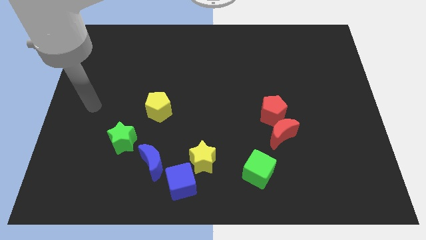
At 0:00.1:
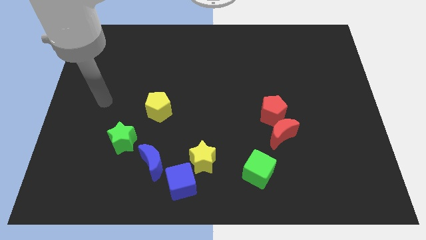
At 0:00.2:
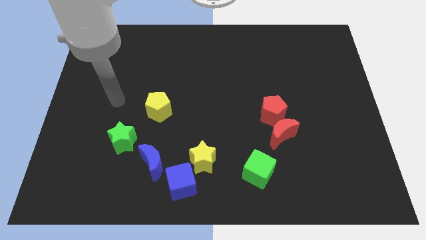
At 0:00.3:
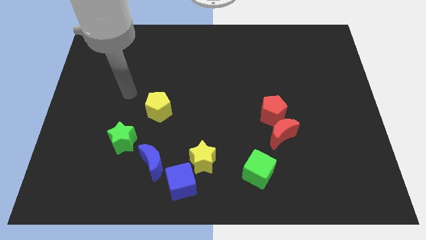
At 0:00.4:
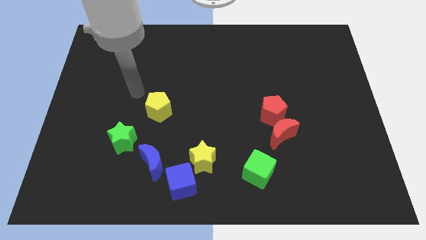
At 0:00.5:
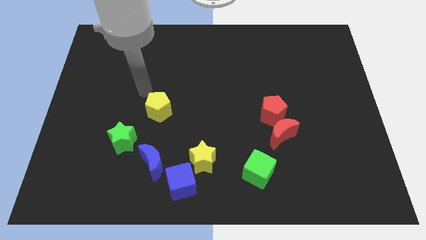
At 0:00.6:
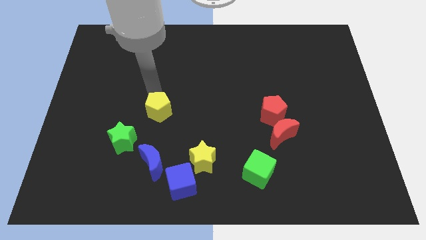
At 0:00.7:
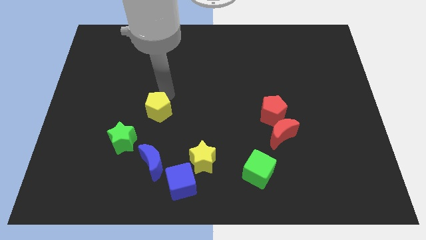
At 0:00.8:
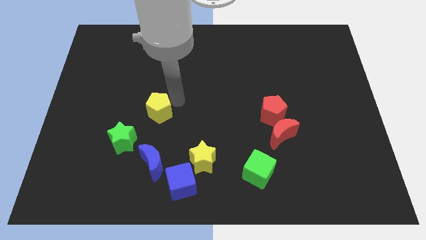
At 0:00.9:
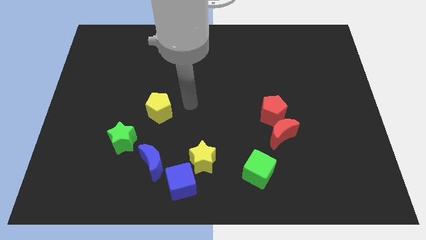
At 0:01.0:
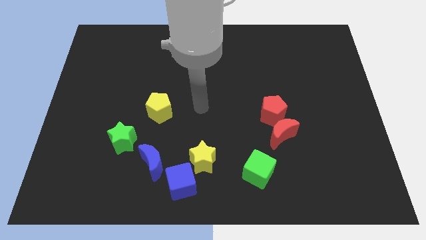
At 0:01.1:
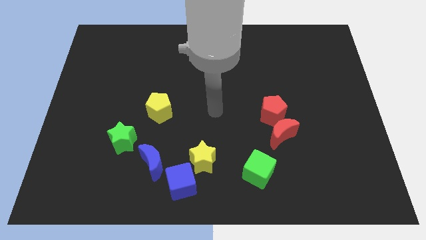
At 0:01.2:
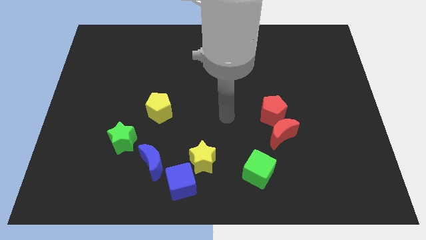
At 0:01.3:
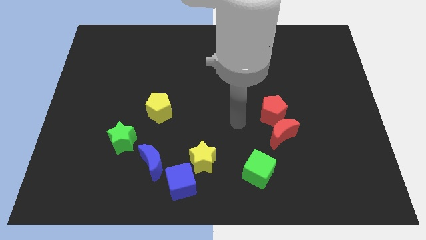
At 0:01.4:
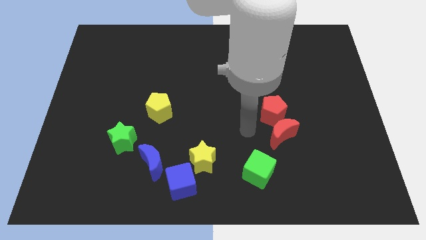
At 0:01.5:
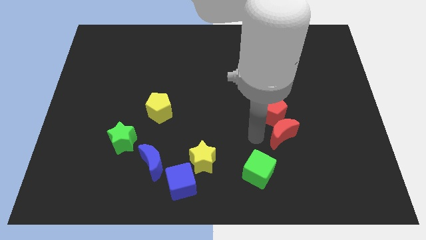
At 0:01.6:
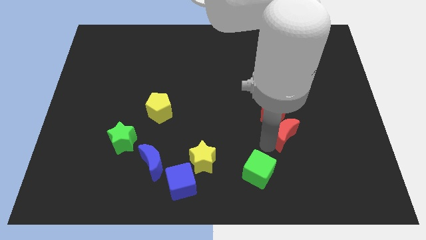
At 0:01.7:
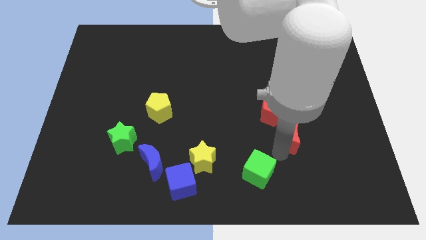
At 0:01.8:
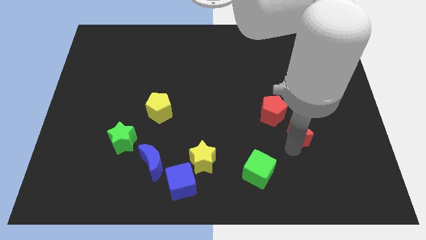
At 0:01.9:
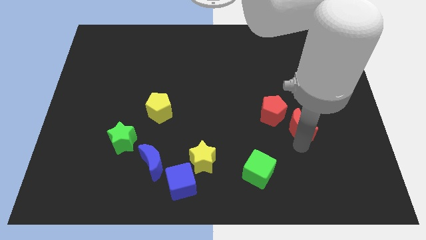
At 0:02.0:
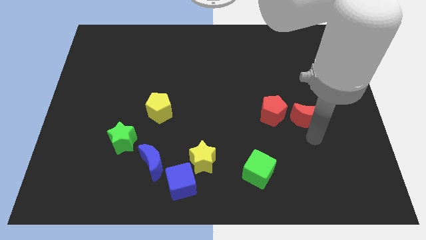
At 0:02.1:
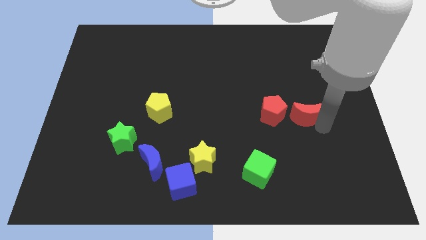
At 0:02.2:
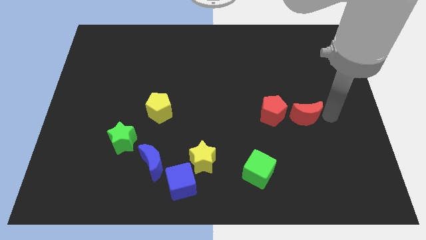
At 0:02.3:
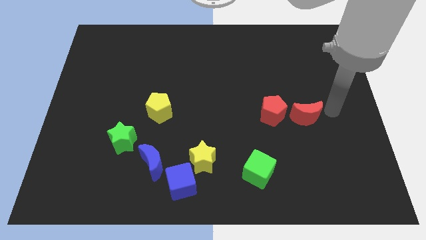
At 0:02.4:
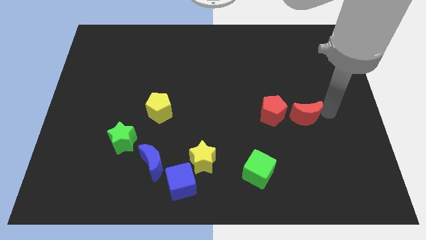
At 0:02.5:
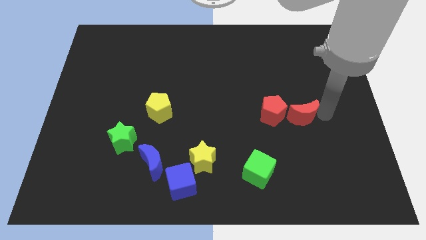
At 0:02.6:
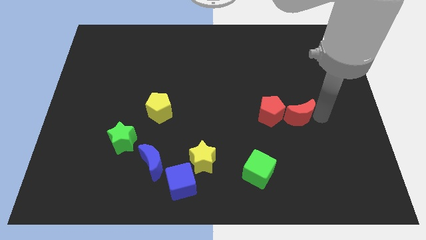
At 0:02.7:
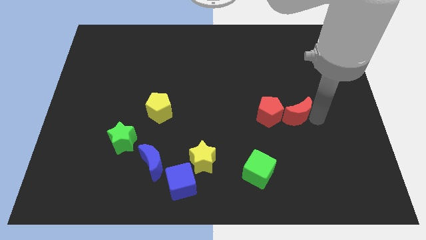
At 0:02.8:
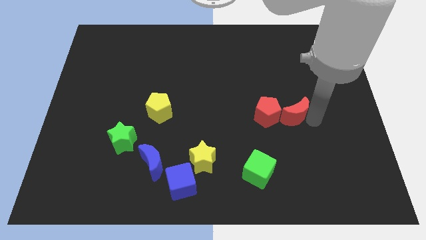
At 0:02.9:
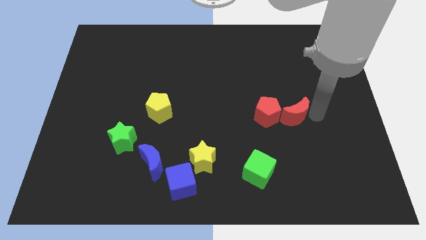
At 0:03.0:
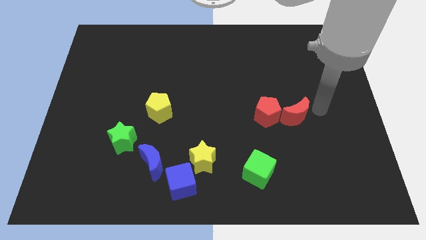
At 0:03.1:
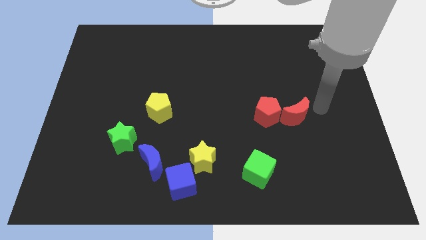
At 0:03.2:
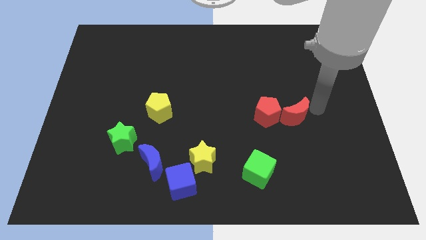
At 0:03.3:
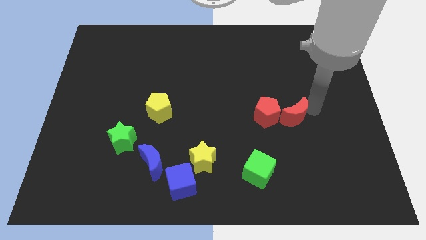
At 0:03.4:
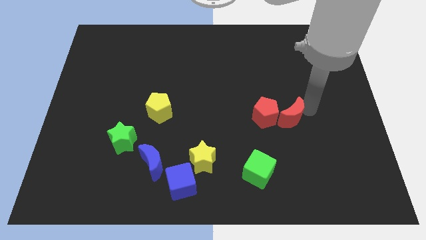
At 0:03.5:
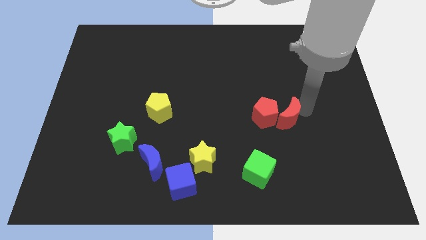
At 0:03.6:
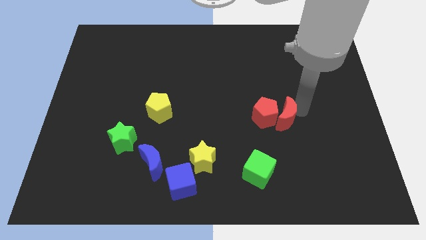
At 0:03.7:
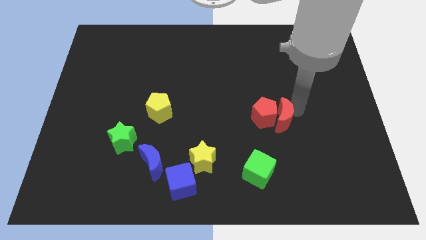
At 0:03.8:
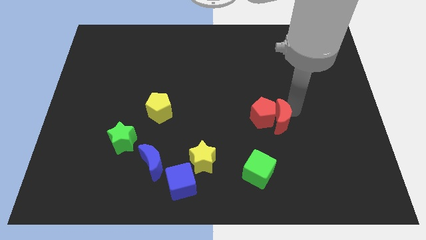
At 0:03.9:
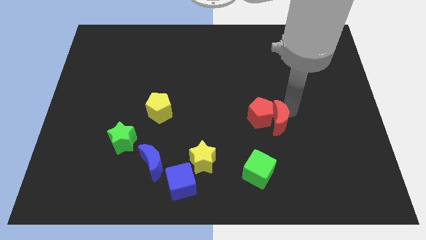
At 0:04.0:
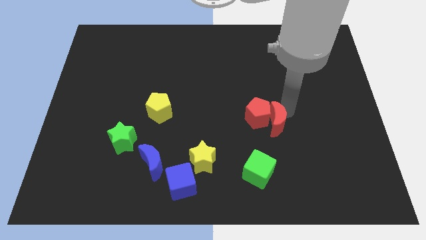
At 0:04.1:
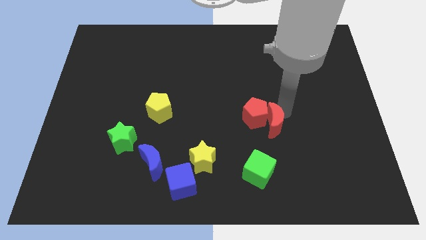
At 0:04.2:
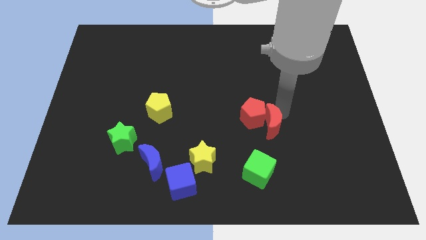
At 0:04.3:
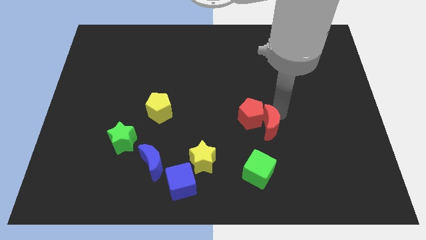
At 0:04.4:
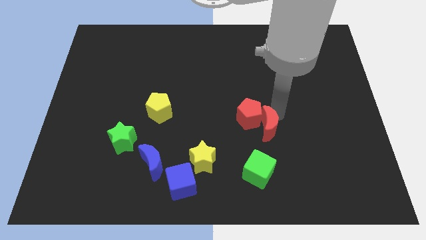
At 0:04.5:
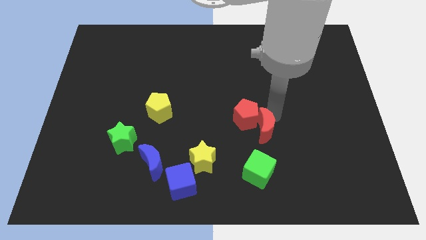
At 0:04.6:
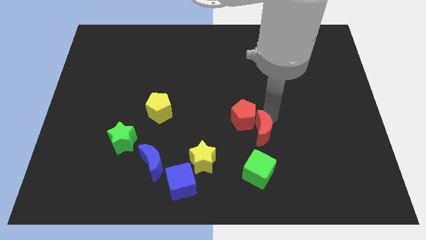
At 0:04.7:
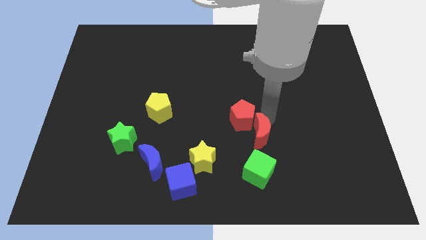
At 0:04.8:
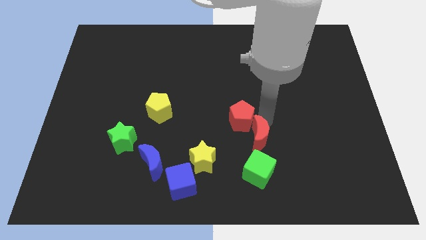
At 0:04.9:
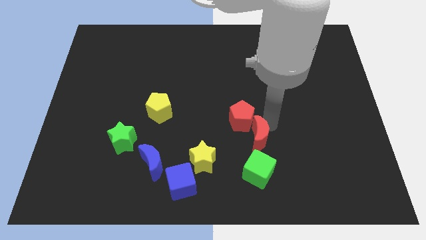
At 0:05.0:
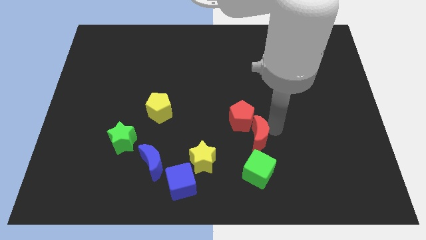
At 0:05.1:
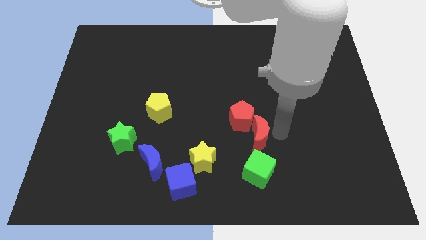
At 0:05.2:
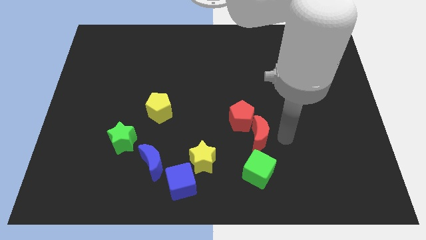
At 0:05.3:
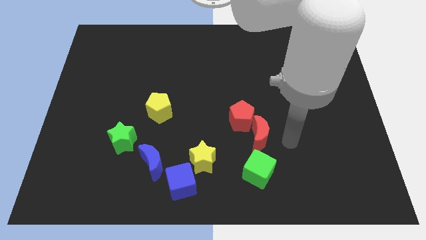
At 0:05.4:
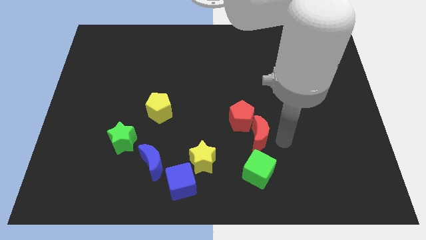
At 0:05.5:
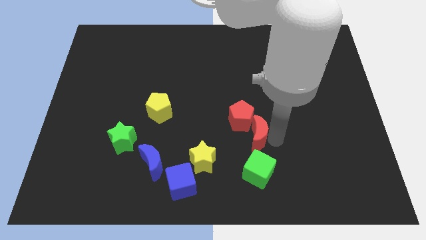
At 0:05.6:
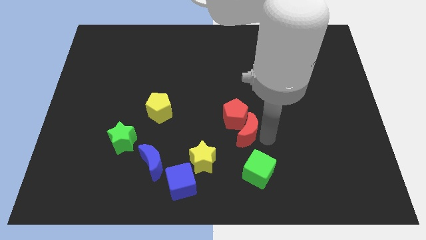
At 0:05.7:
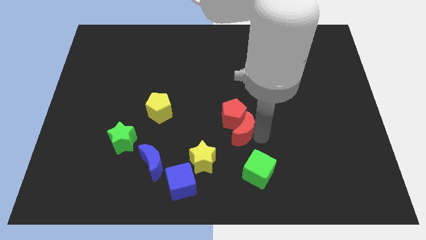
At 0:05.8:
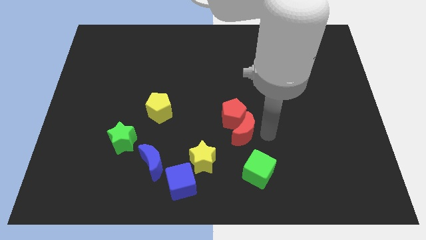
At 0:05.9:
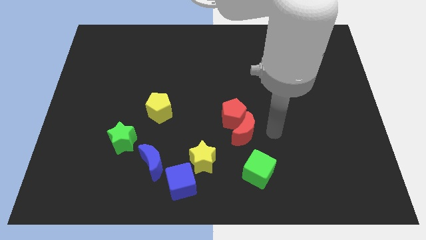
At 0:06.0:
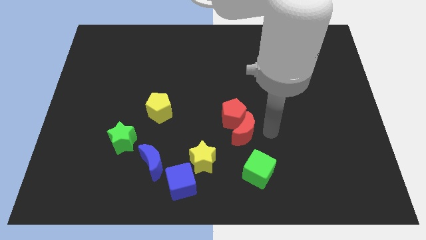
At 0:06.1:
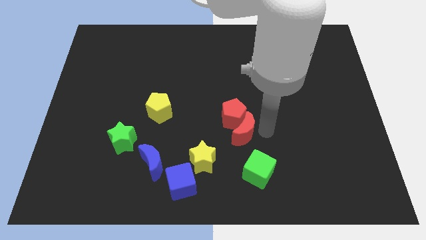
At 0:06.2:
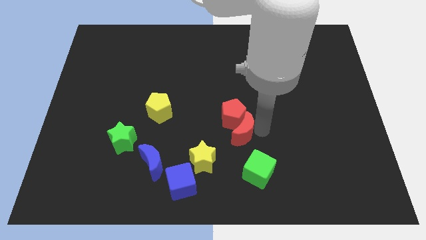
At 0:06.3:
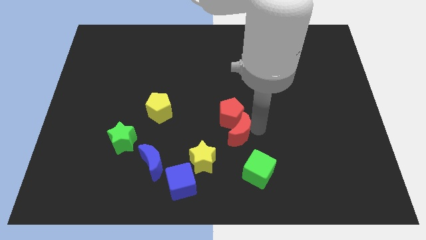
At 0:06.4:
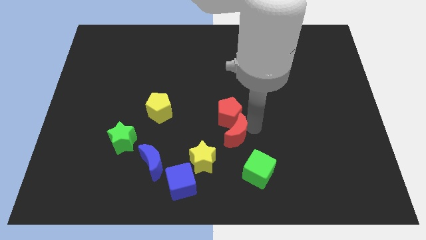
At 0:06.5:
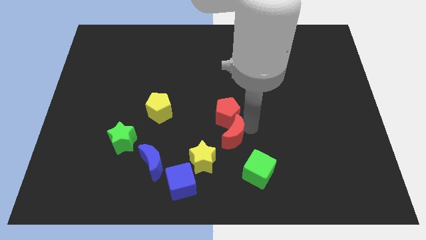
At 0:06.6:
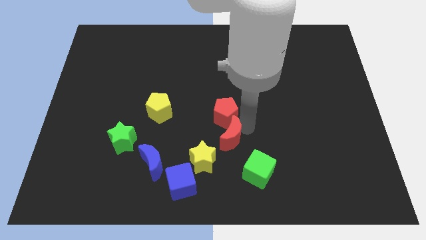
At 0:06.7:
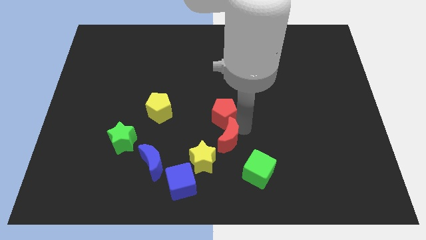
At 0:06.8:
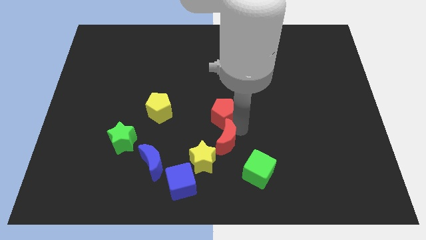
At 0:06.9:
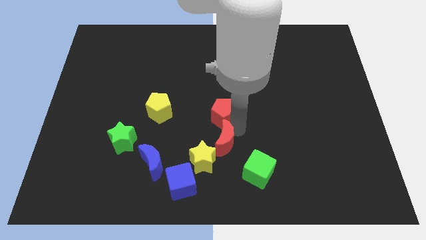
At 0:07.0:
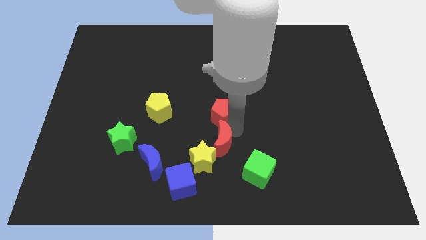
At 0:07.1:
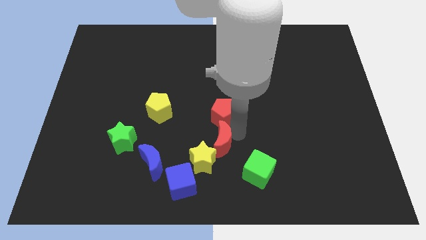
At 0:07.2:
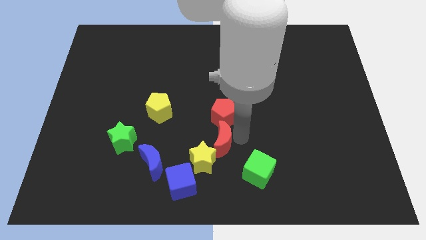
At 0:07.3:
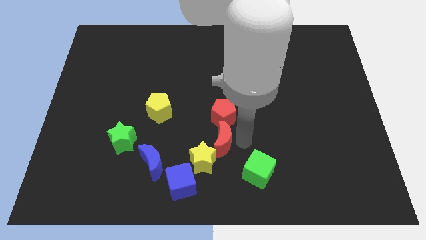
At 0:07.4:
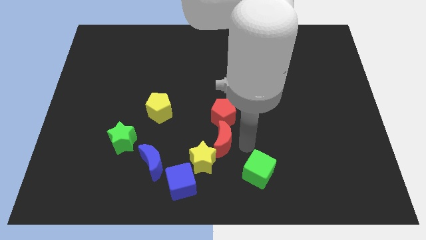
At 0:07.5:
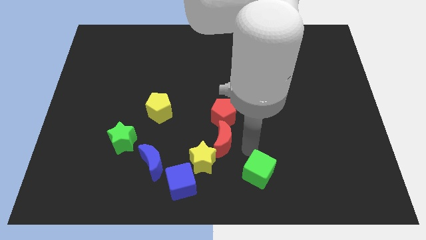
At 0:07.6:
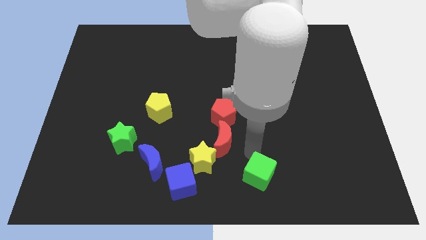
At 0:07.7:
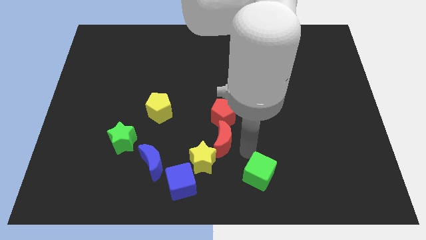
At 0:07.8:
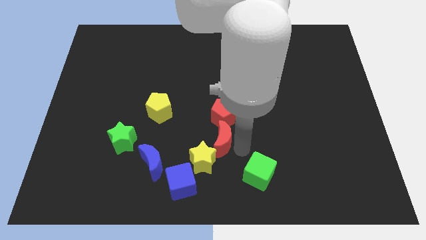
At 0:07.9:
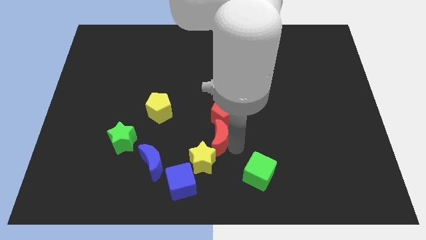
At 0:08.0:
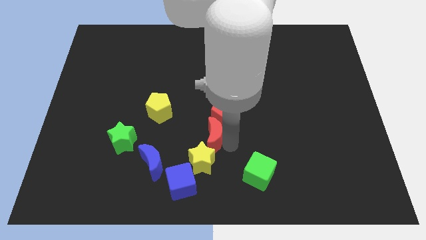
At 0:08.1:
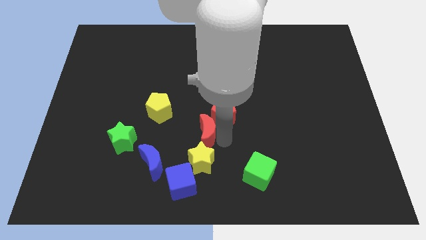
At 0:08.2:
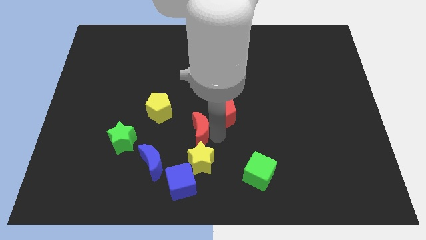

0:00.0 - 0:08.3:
push the red moon above the blue cube
